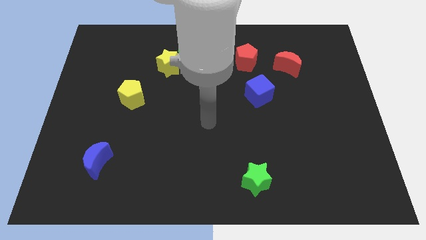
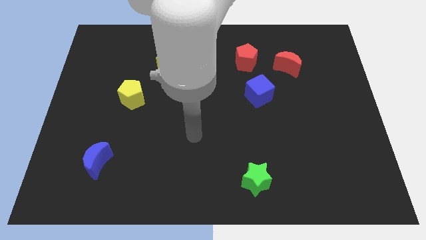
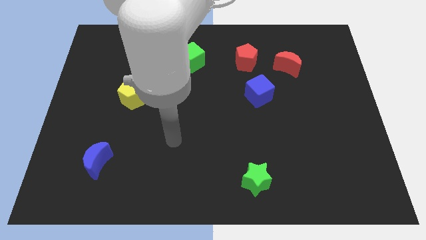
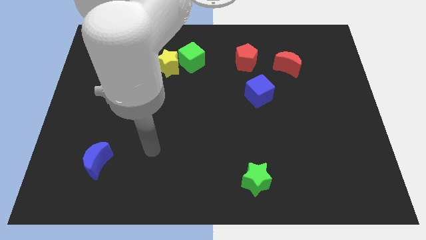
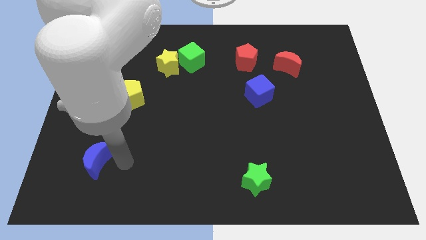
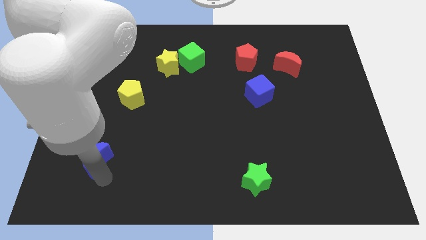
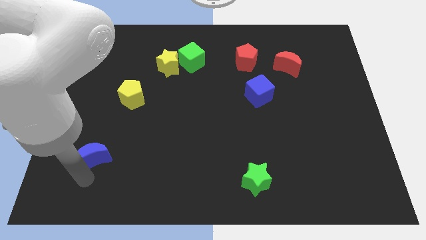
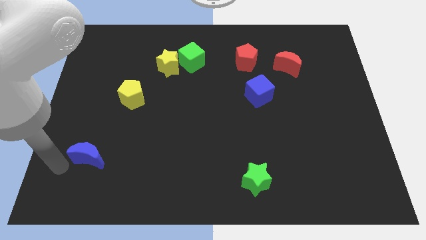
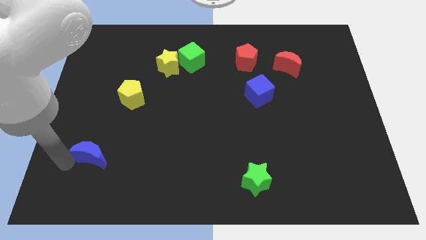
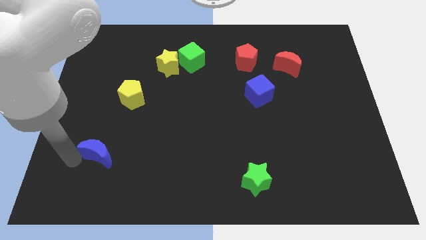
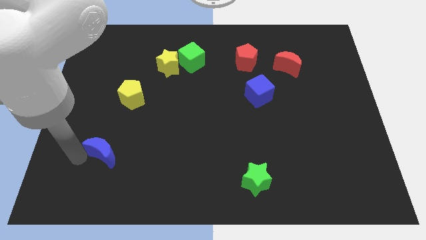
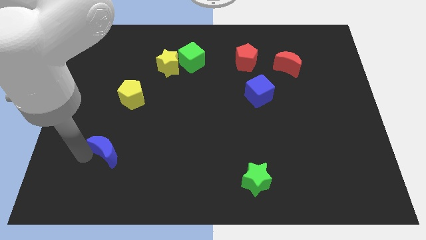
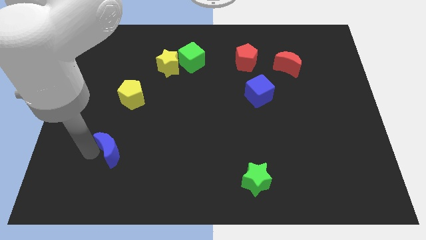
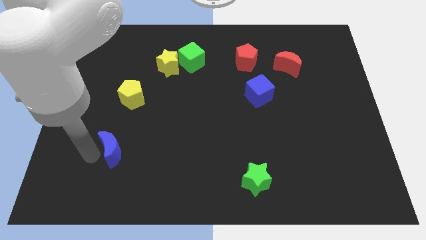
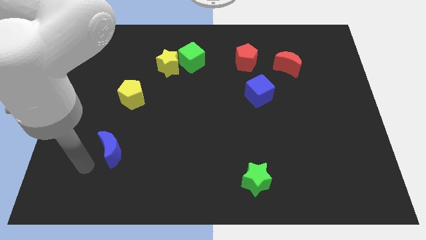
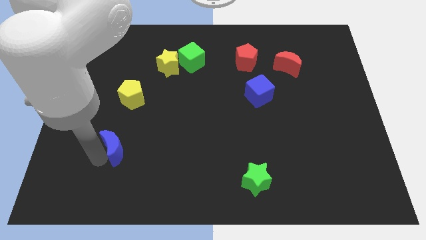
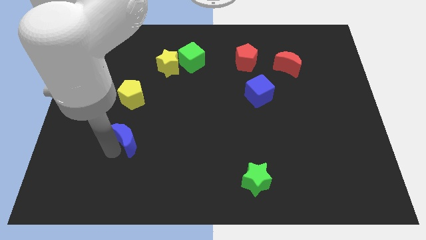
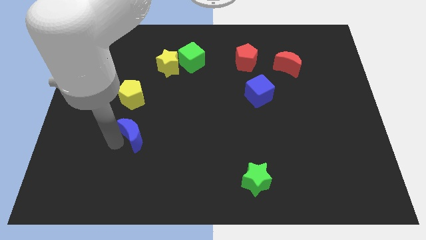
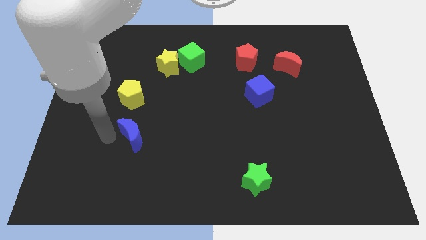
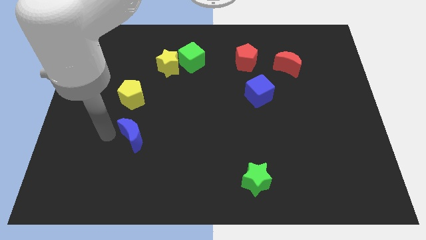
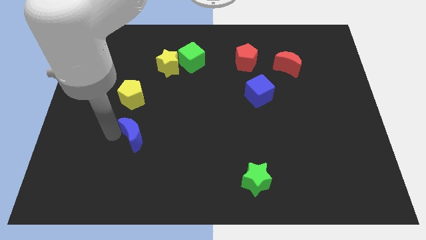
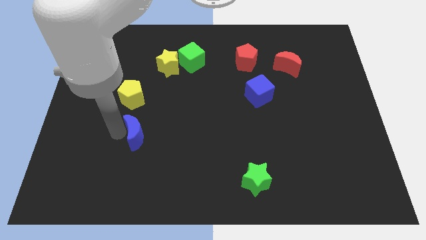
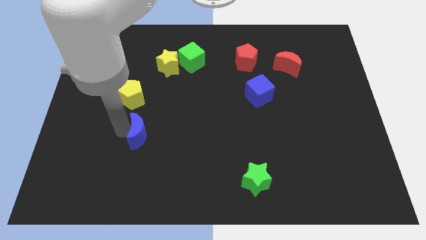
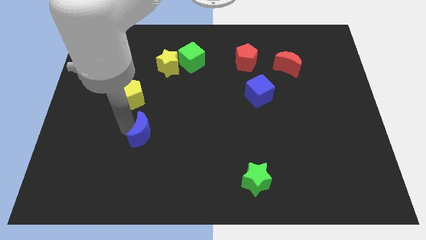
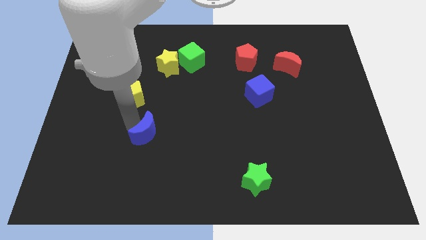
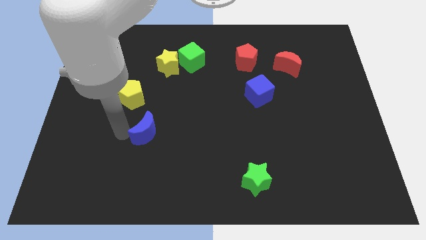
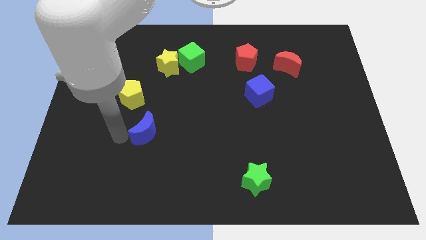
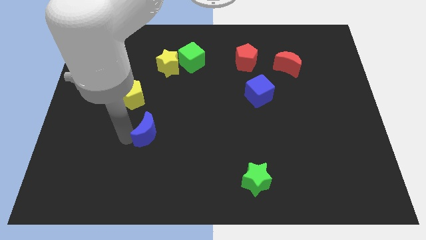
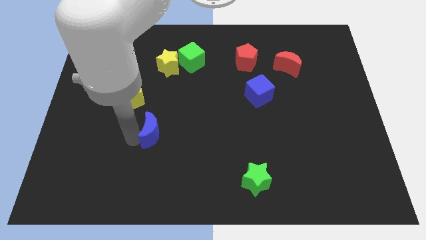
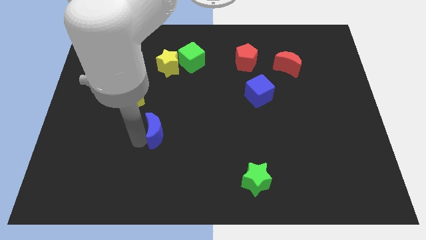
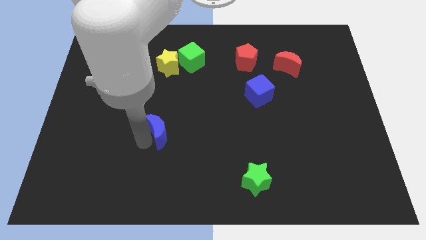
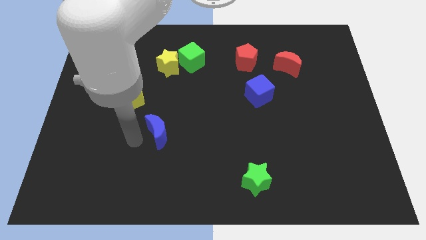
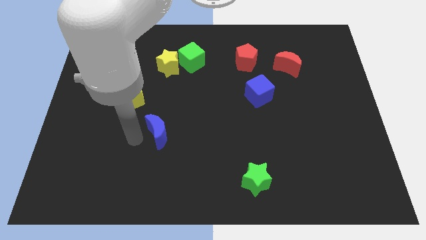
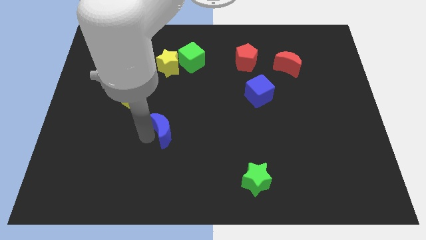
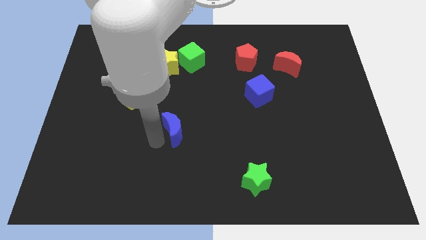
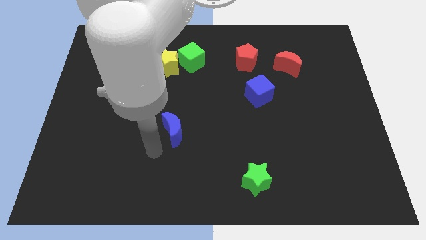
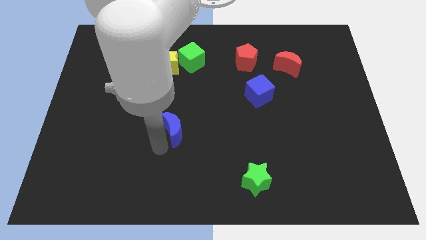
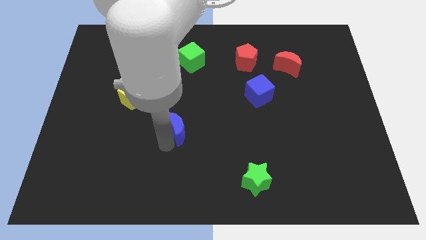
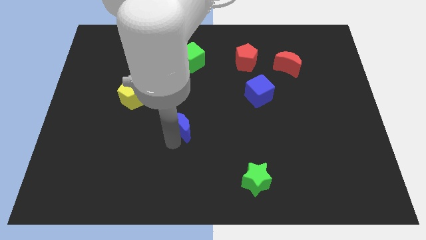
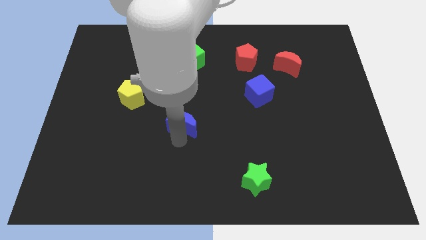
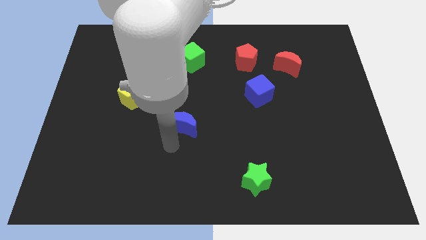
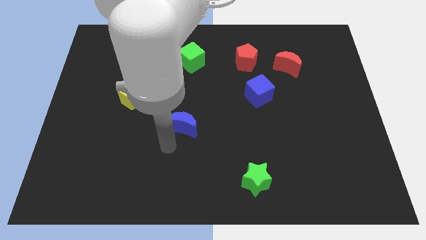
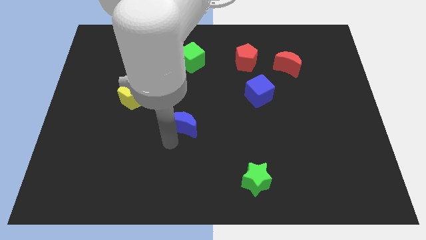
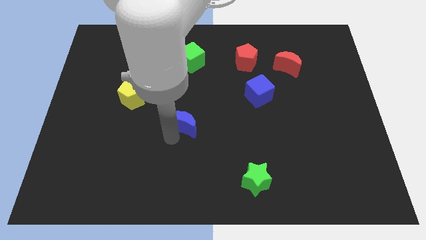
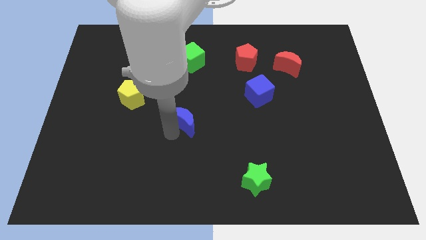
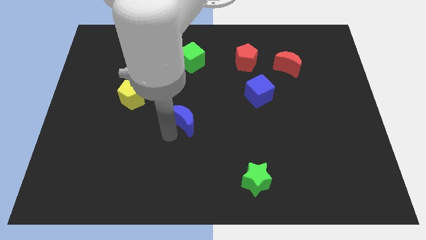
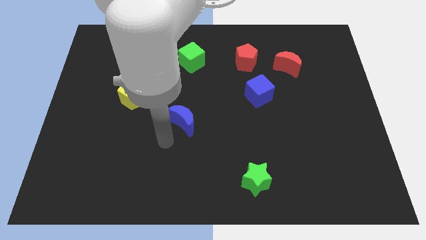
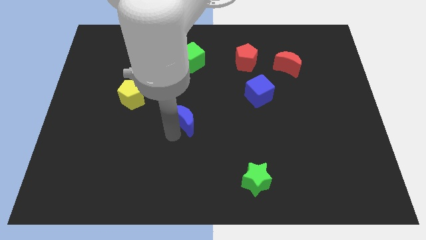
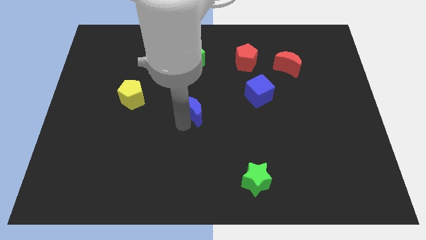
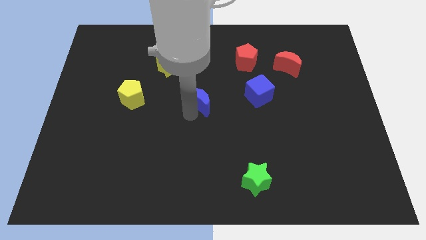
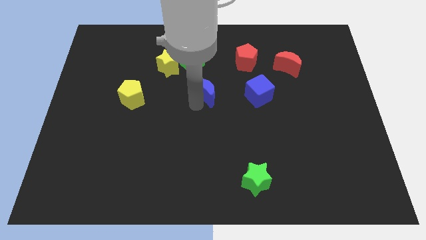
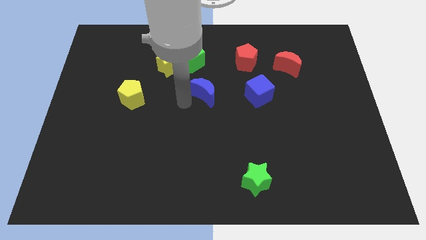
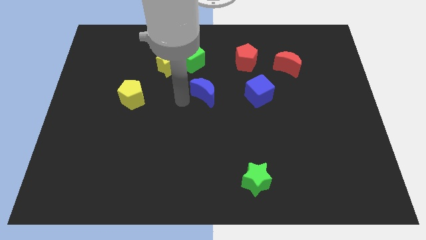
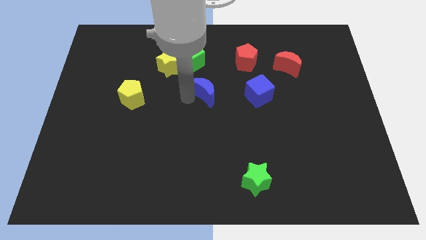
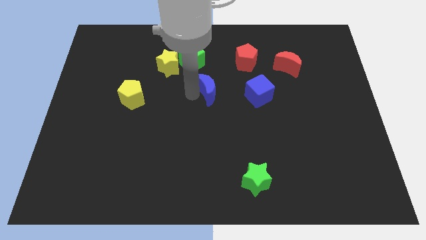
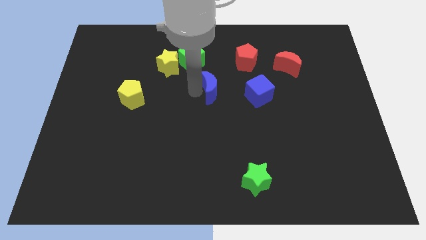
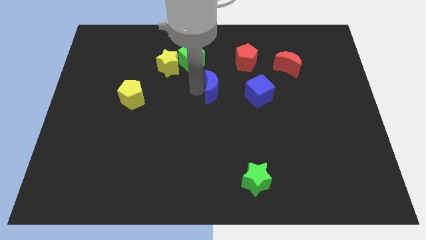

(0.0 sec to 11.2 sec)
move the blue moon diagonally down and to the left of the red pentagon

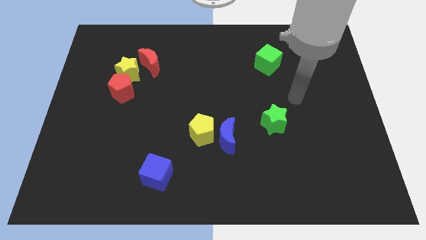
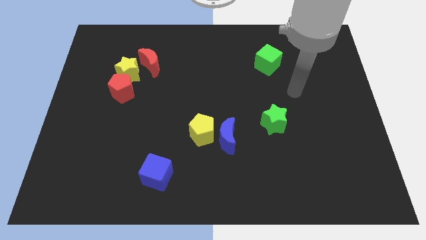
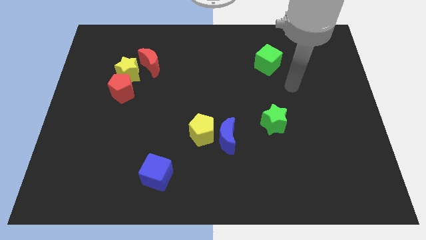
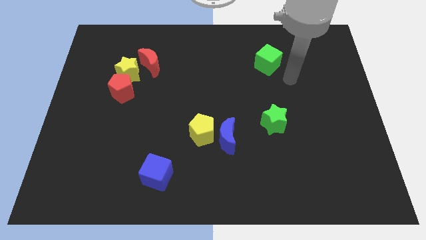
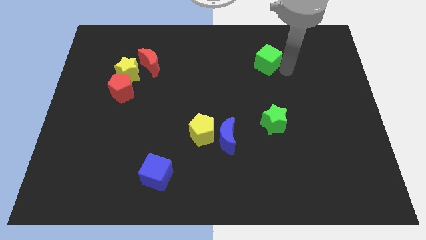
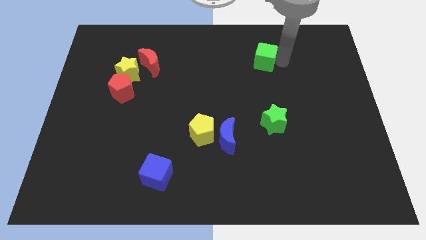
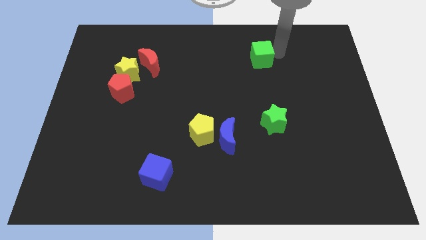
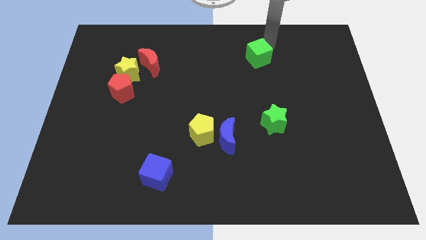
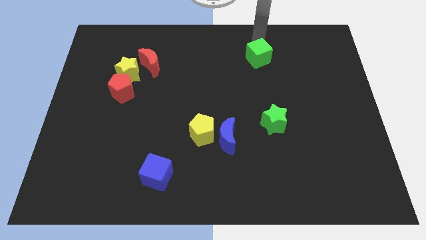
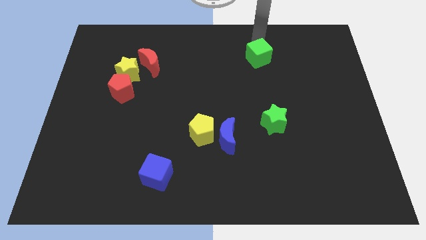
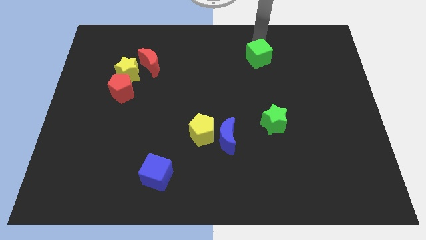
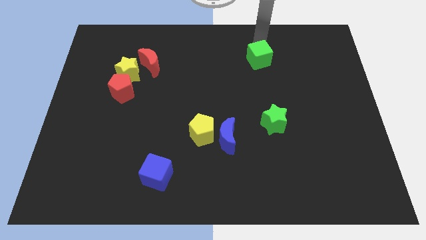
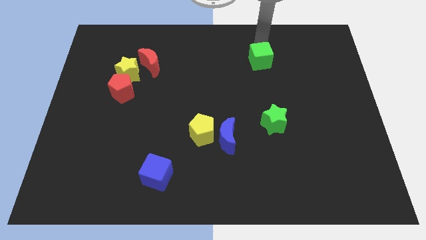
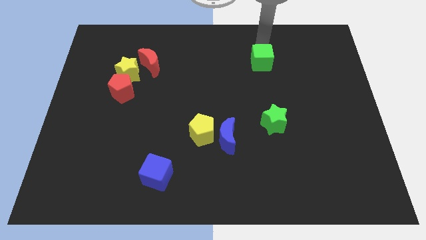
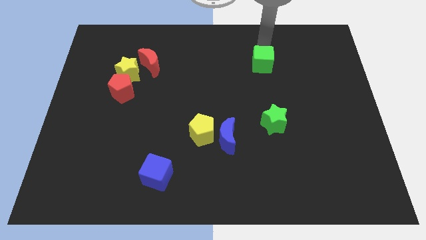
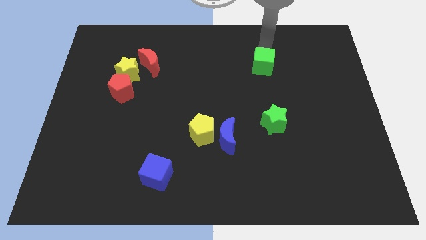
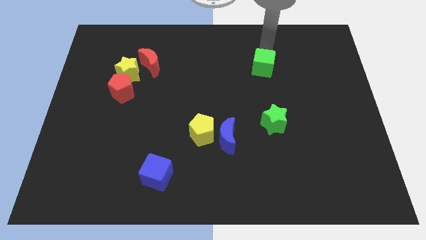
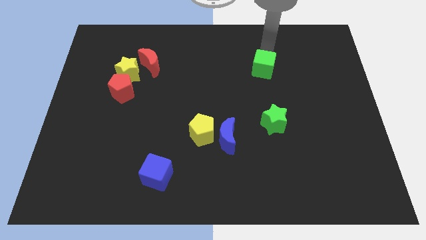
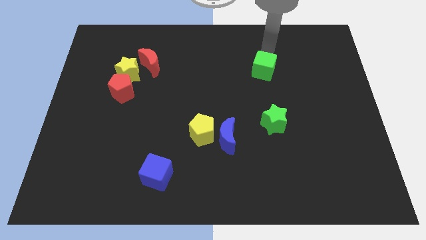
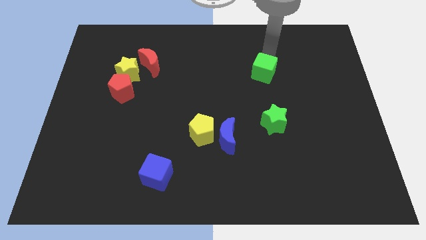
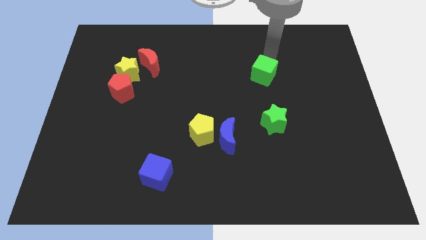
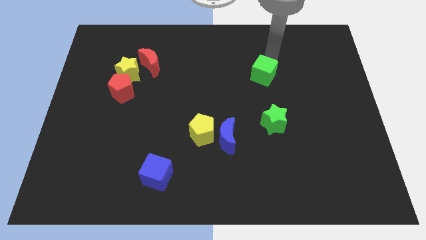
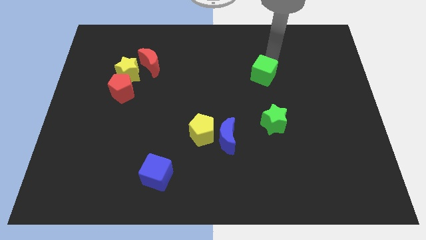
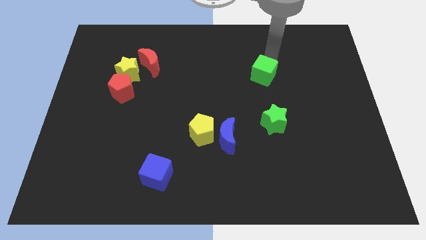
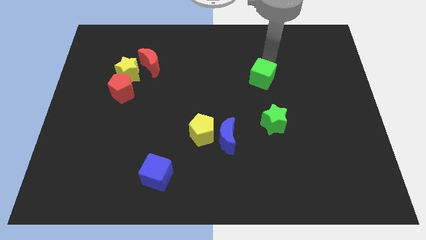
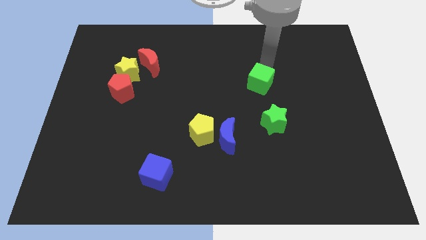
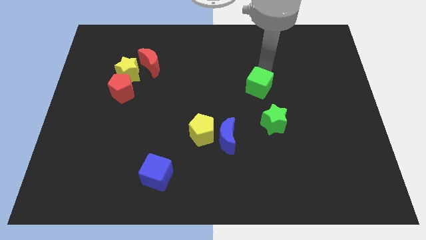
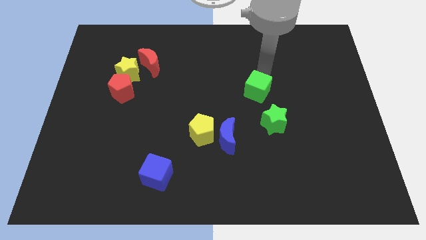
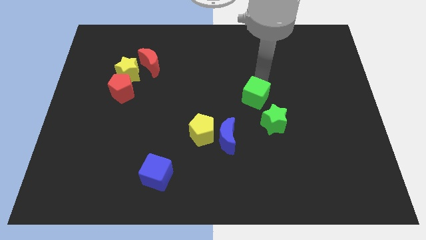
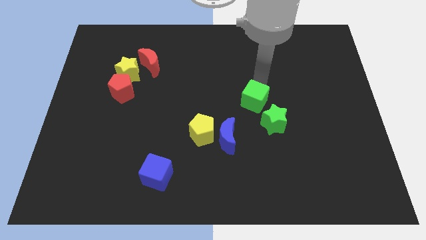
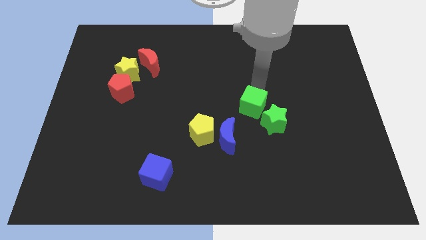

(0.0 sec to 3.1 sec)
move the green cube to the top right side of the blue moon
